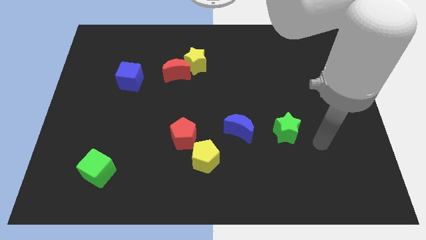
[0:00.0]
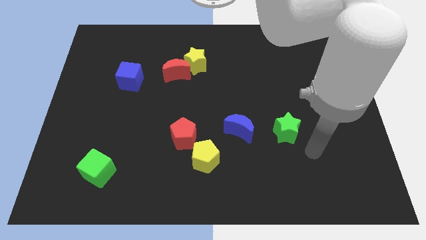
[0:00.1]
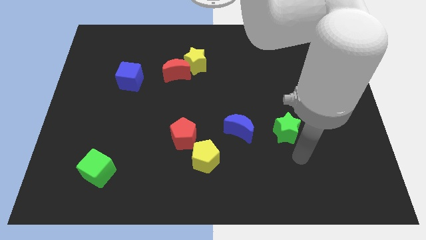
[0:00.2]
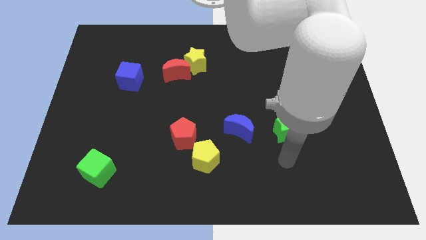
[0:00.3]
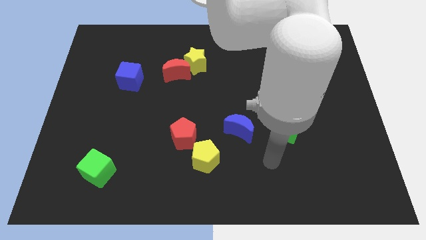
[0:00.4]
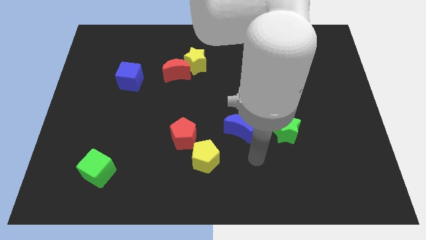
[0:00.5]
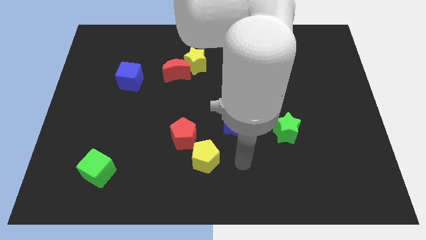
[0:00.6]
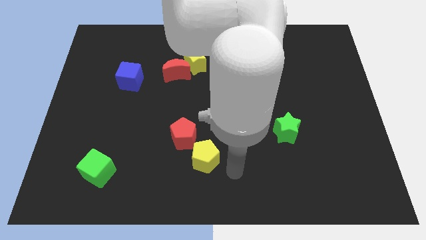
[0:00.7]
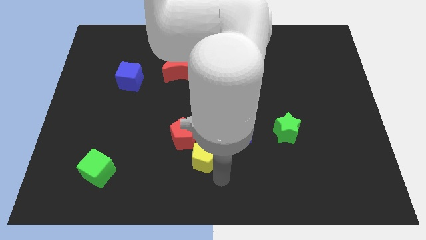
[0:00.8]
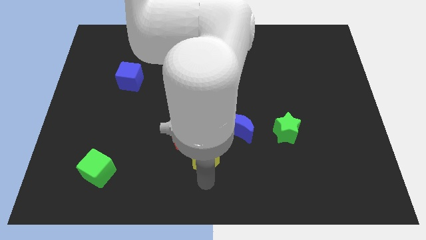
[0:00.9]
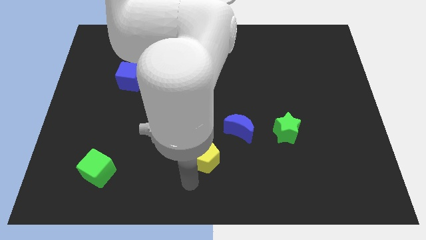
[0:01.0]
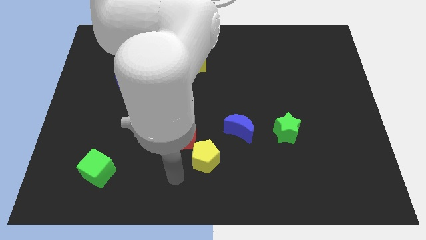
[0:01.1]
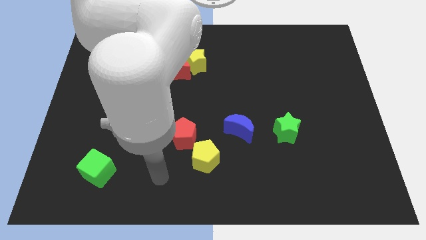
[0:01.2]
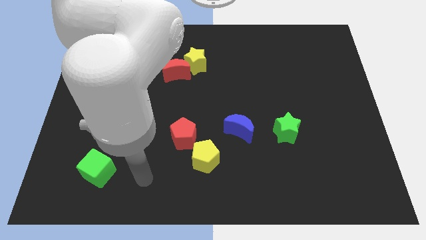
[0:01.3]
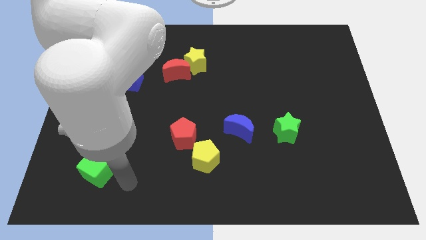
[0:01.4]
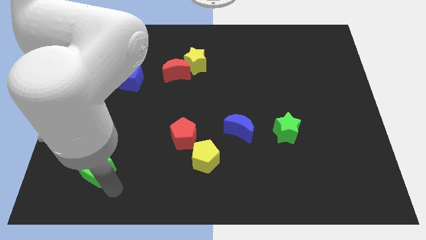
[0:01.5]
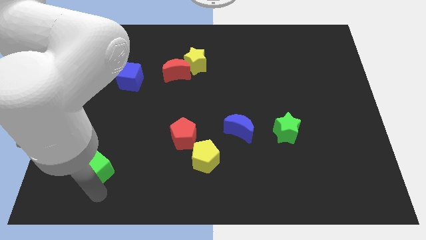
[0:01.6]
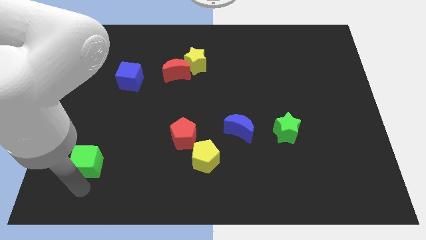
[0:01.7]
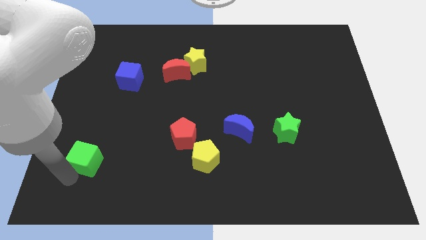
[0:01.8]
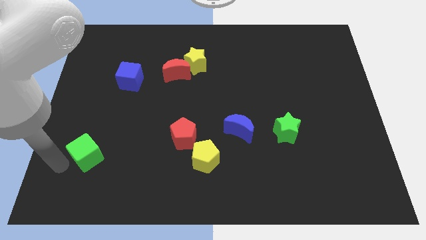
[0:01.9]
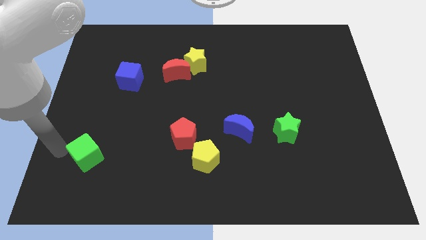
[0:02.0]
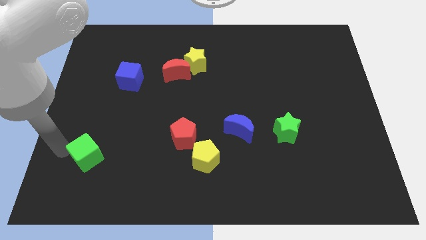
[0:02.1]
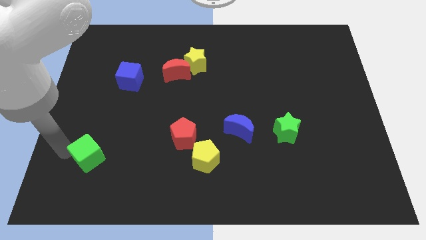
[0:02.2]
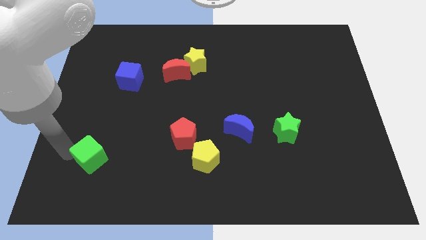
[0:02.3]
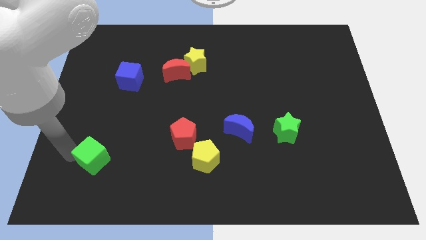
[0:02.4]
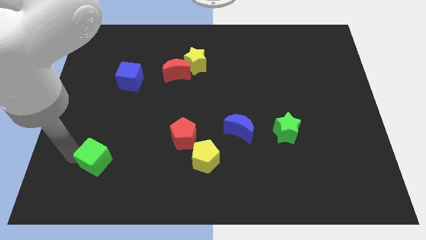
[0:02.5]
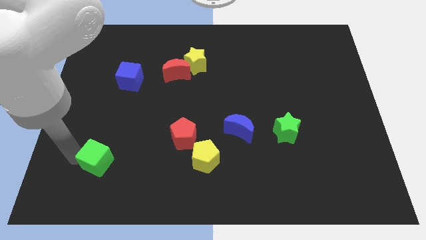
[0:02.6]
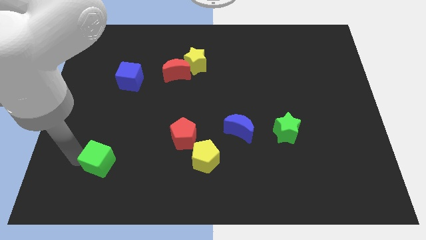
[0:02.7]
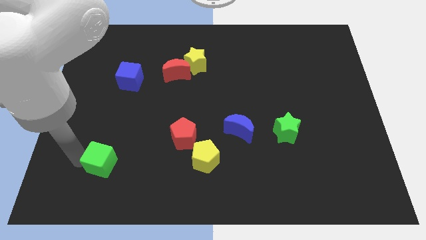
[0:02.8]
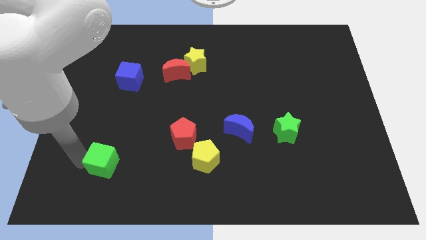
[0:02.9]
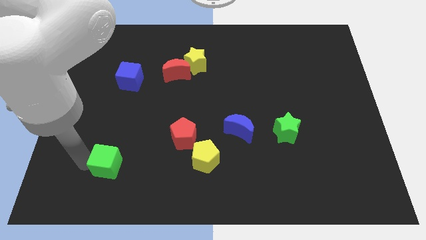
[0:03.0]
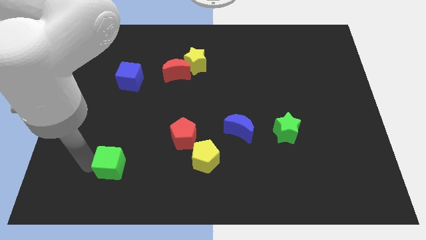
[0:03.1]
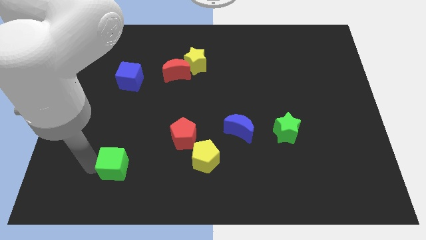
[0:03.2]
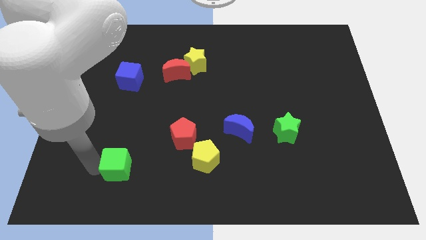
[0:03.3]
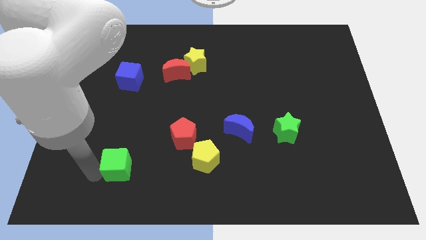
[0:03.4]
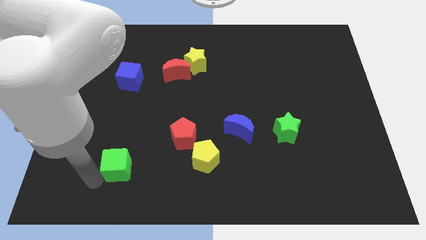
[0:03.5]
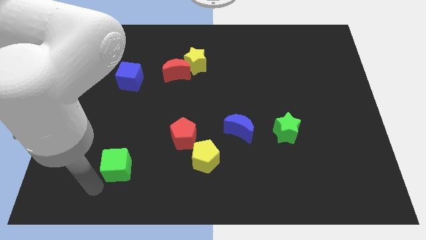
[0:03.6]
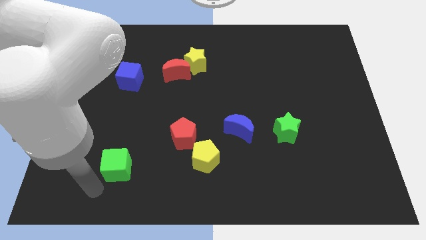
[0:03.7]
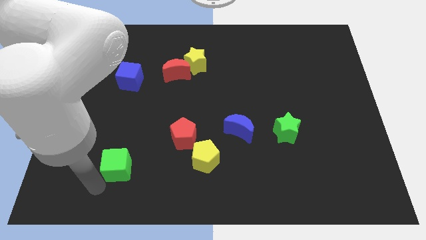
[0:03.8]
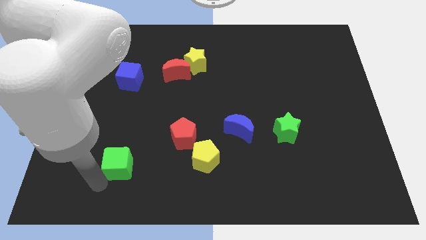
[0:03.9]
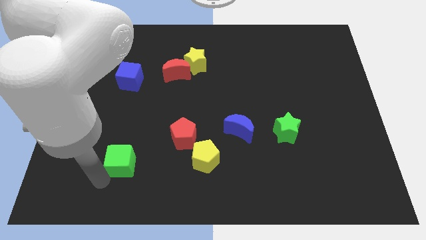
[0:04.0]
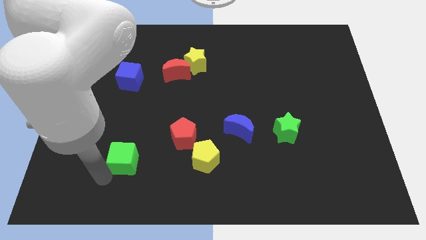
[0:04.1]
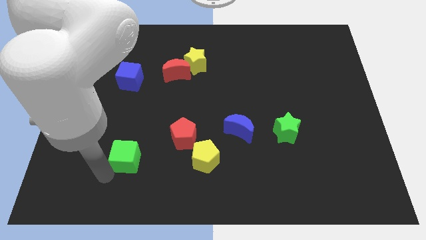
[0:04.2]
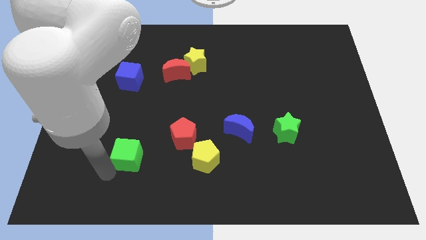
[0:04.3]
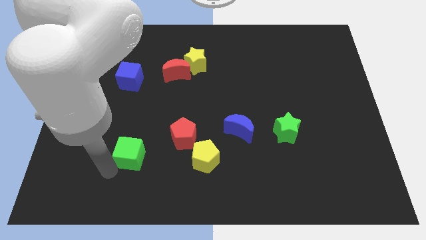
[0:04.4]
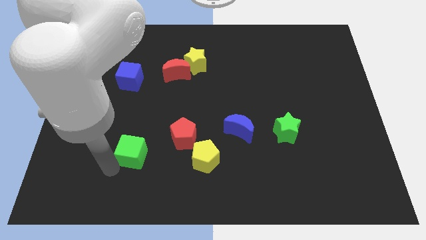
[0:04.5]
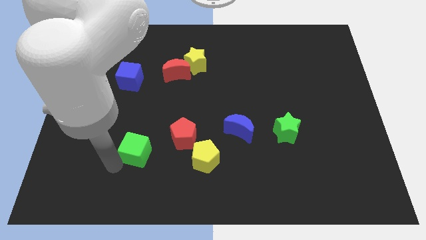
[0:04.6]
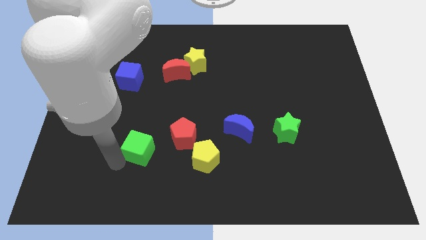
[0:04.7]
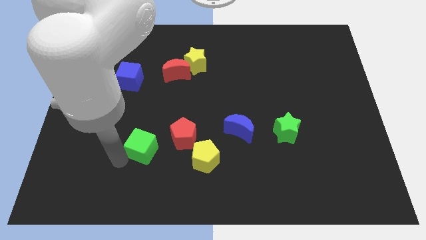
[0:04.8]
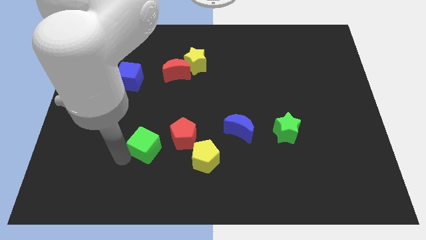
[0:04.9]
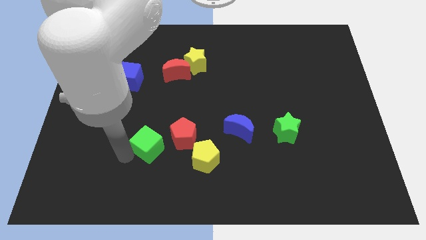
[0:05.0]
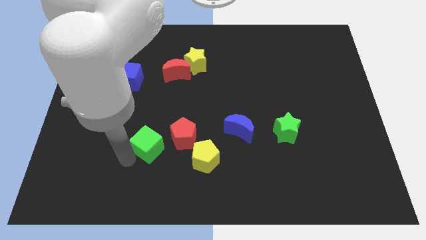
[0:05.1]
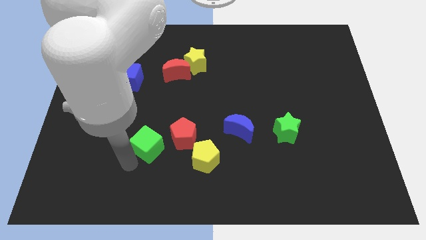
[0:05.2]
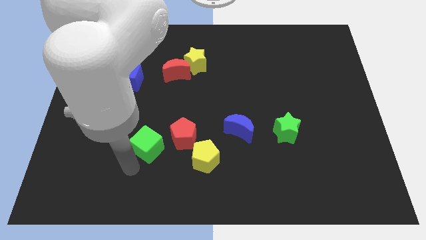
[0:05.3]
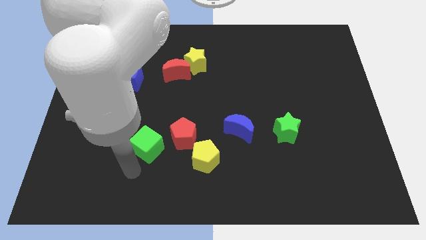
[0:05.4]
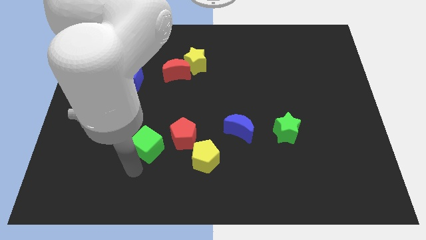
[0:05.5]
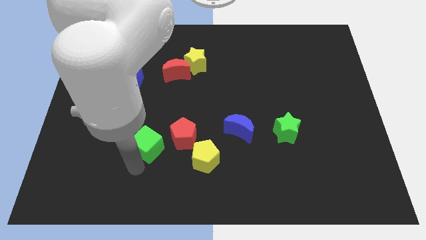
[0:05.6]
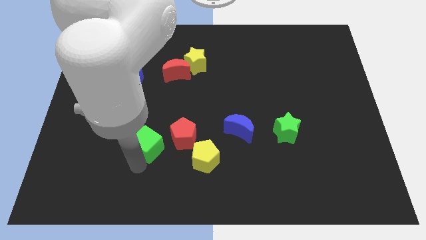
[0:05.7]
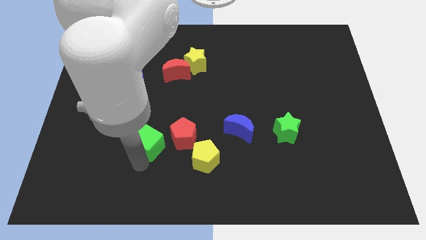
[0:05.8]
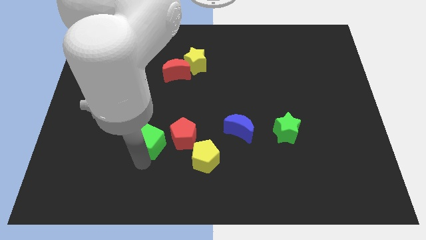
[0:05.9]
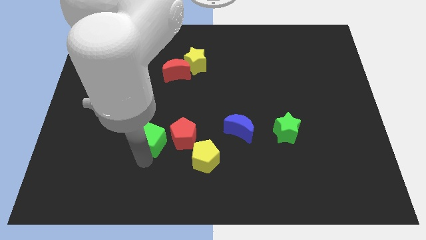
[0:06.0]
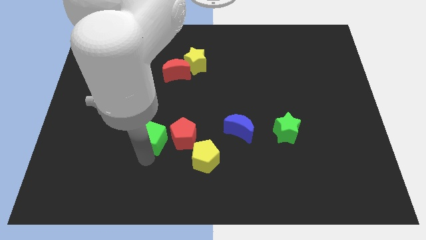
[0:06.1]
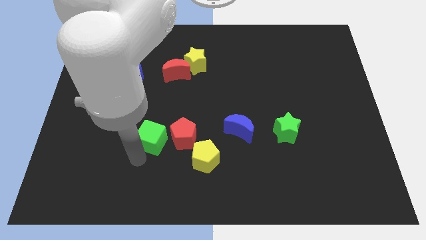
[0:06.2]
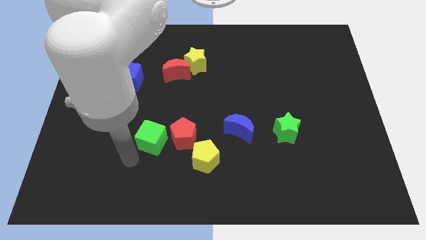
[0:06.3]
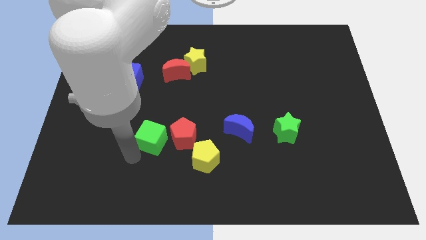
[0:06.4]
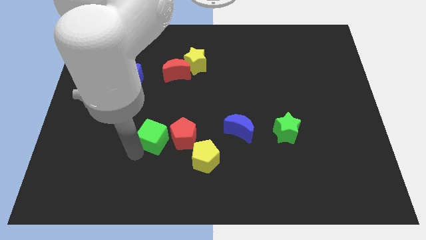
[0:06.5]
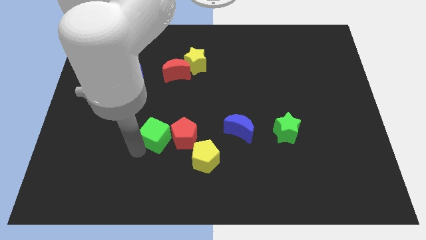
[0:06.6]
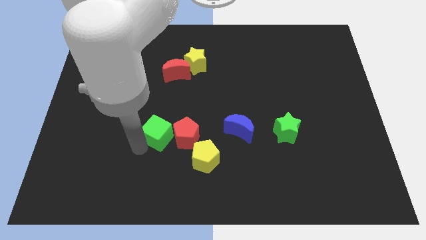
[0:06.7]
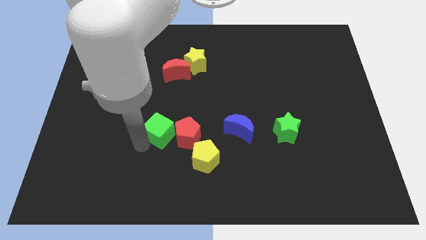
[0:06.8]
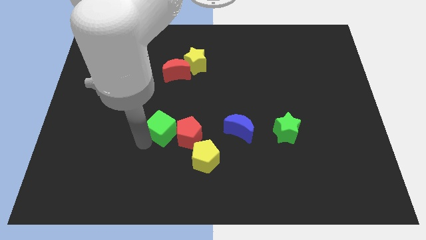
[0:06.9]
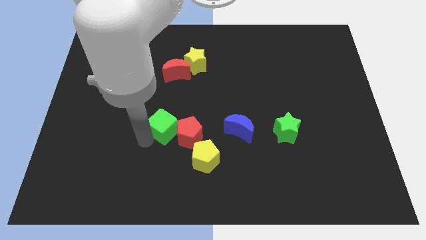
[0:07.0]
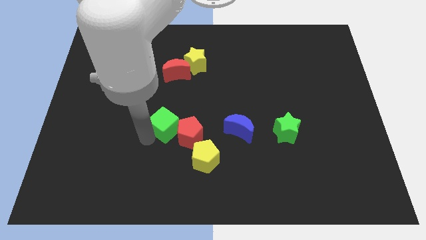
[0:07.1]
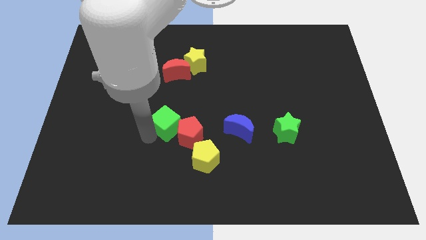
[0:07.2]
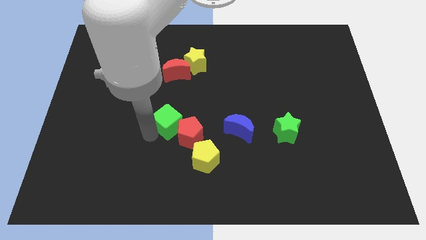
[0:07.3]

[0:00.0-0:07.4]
push the green cube to the center of the board

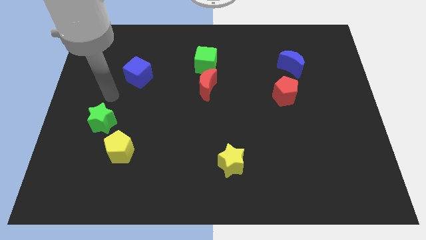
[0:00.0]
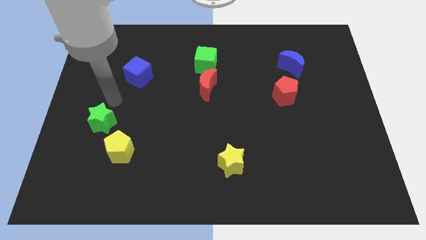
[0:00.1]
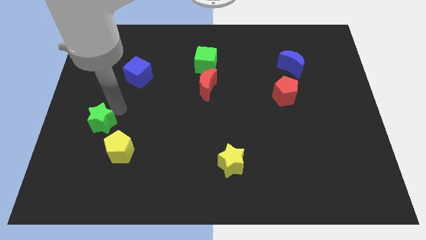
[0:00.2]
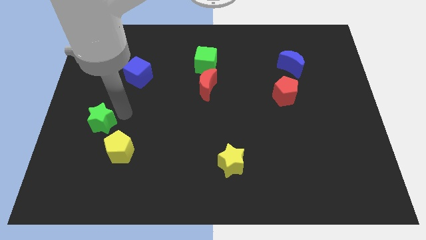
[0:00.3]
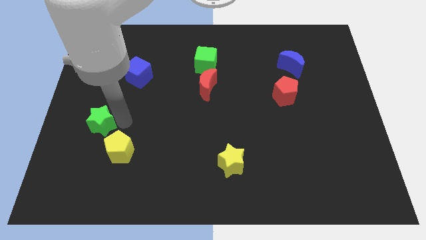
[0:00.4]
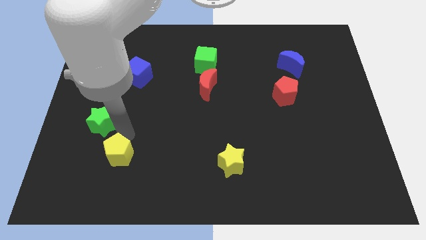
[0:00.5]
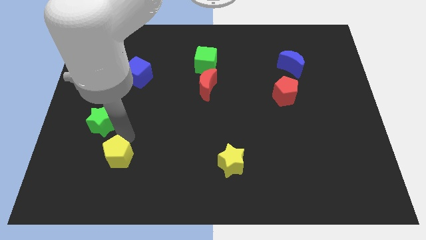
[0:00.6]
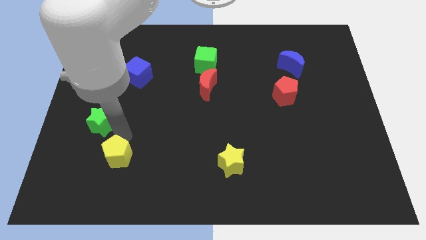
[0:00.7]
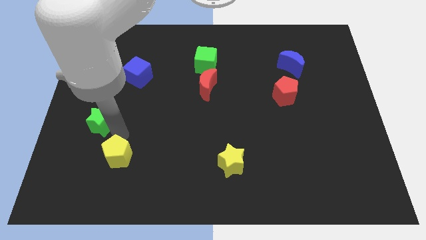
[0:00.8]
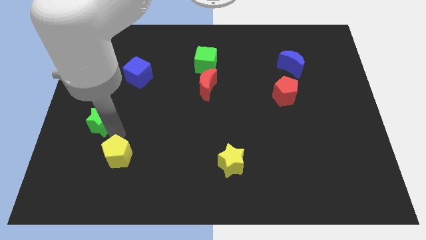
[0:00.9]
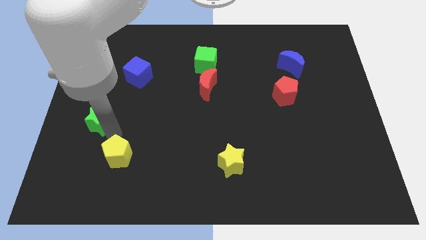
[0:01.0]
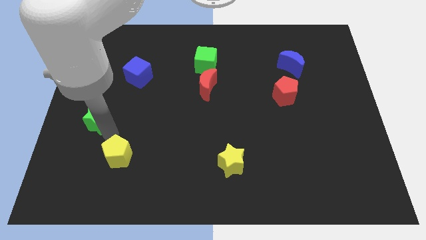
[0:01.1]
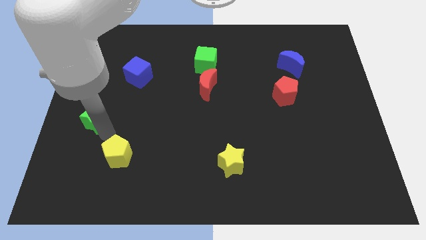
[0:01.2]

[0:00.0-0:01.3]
push the green star to the left side of the board
